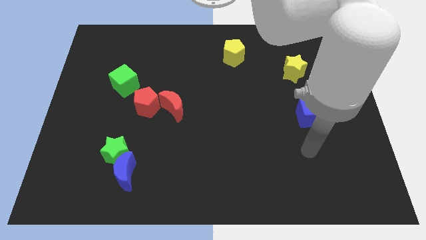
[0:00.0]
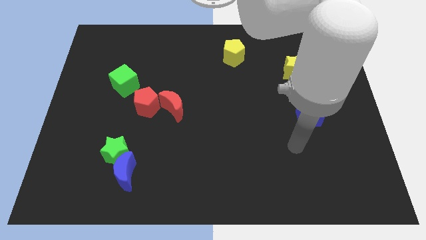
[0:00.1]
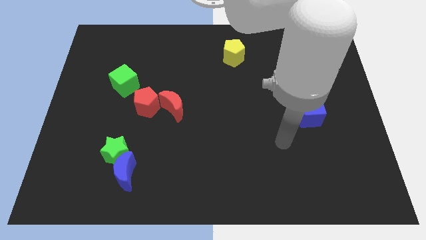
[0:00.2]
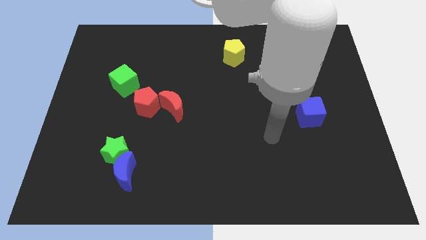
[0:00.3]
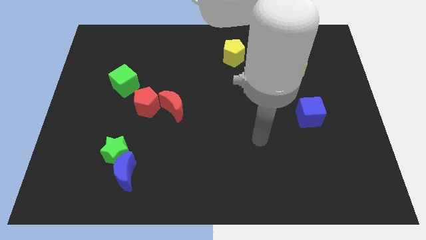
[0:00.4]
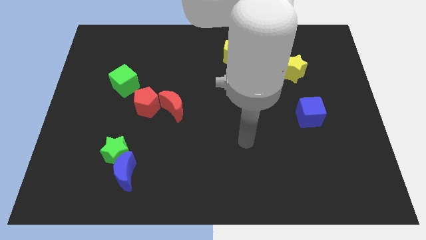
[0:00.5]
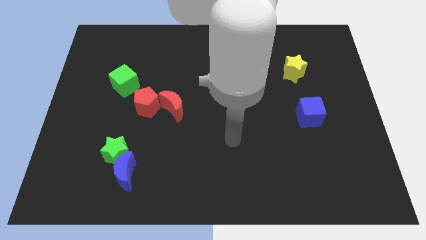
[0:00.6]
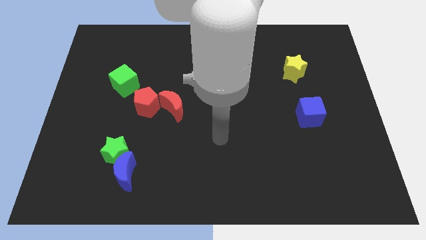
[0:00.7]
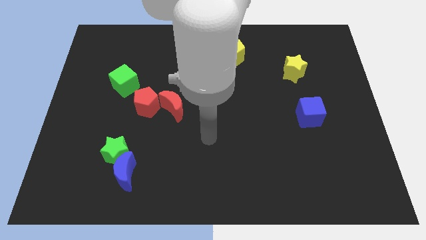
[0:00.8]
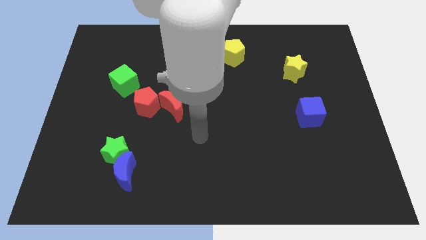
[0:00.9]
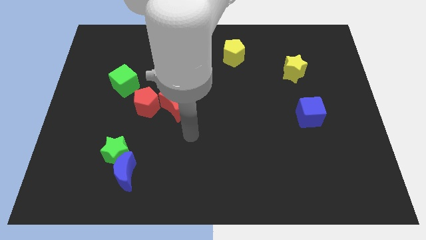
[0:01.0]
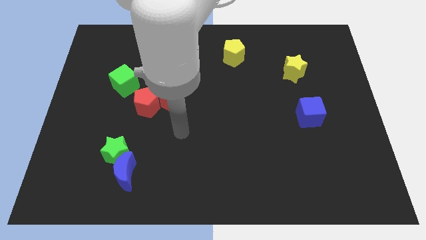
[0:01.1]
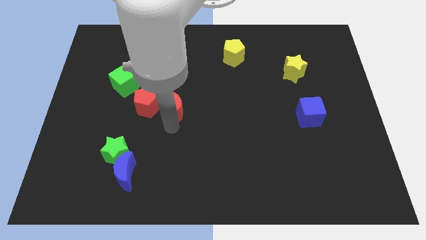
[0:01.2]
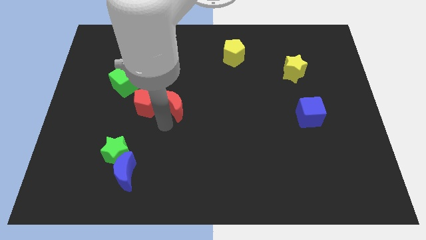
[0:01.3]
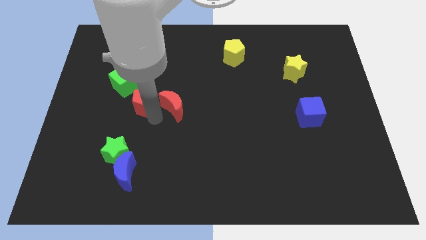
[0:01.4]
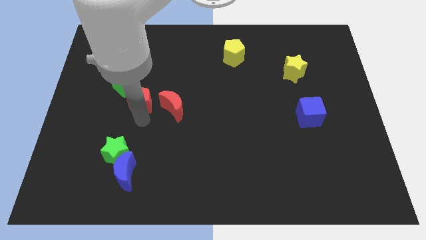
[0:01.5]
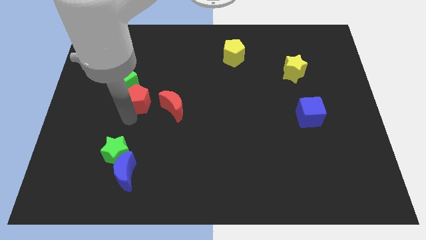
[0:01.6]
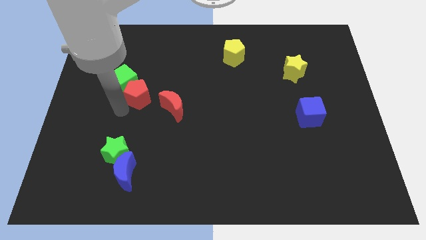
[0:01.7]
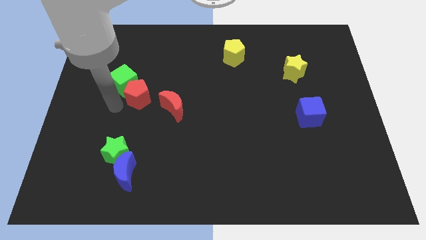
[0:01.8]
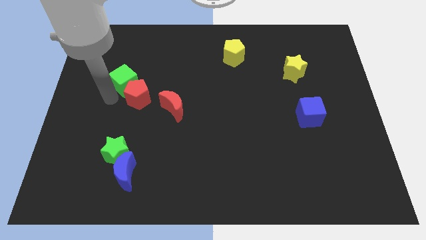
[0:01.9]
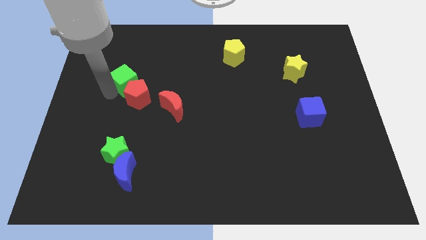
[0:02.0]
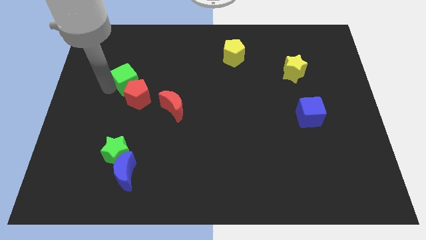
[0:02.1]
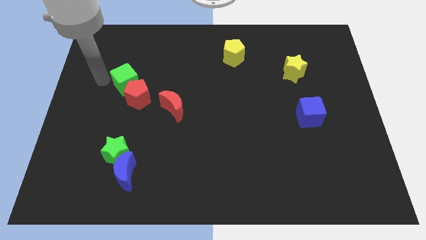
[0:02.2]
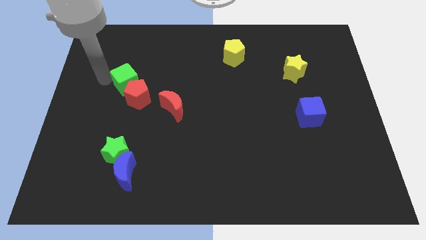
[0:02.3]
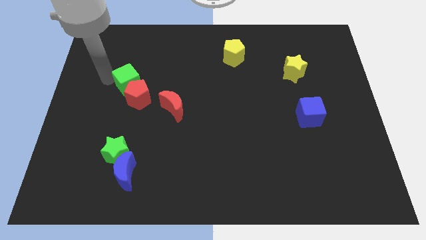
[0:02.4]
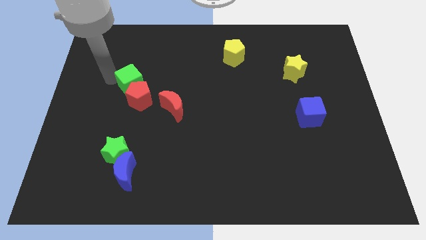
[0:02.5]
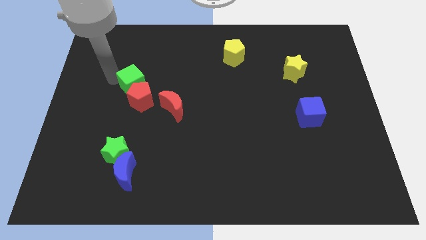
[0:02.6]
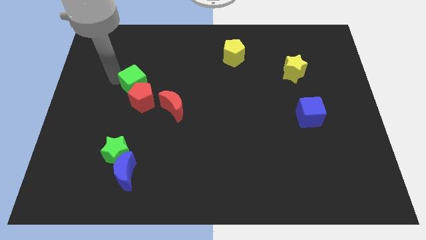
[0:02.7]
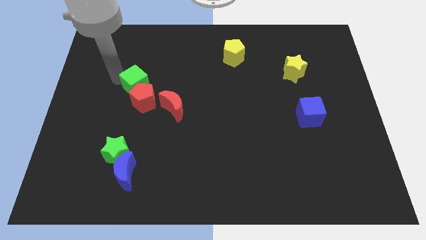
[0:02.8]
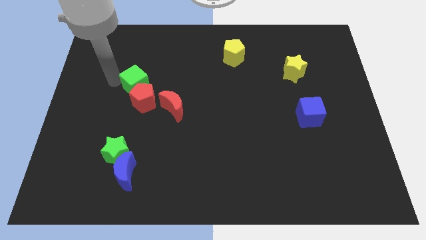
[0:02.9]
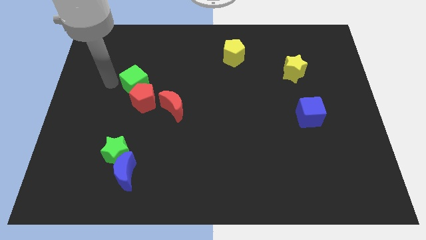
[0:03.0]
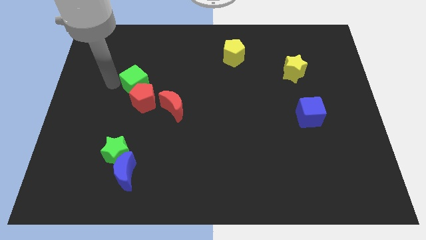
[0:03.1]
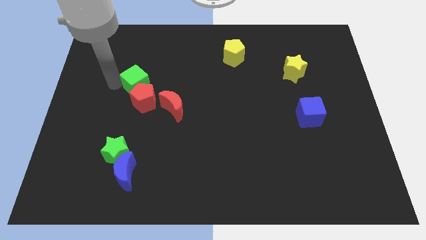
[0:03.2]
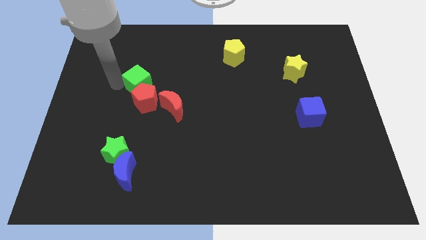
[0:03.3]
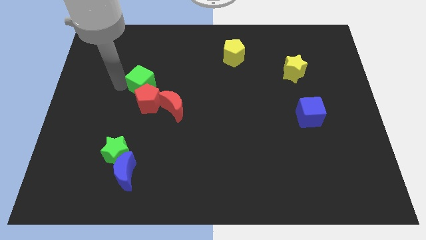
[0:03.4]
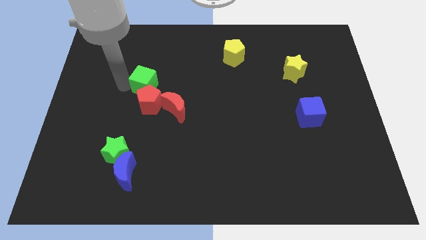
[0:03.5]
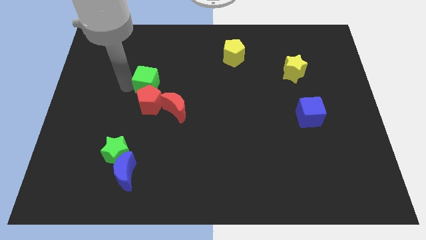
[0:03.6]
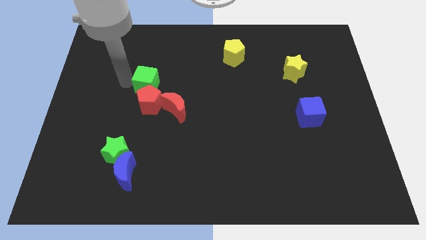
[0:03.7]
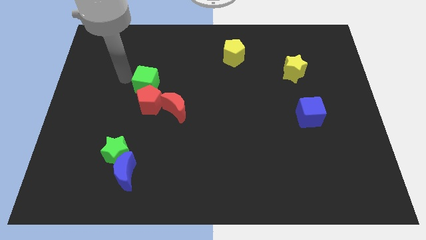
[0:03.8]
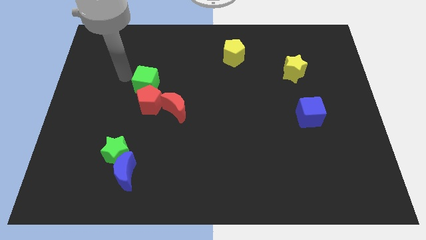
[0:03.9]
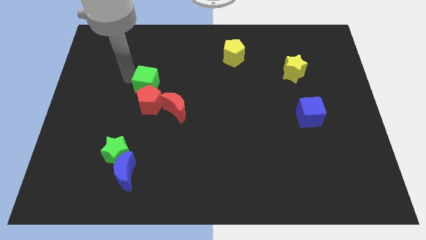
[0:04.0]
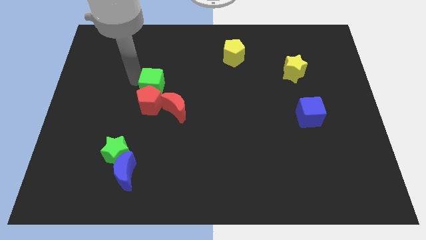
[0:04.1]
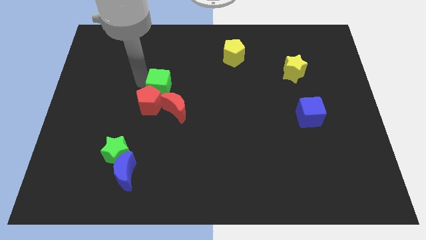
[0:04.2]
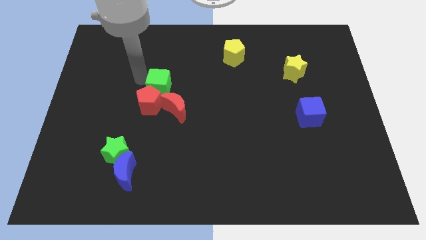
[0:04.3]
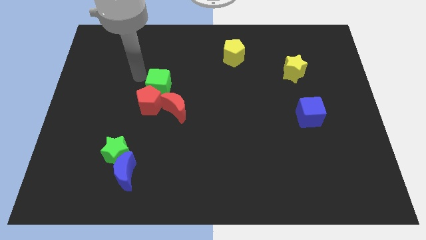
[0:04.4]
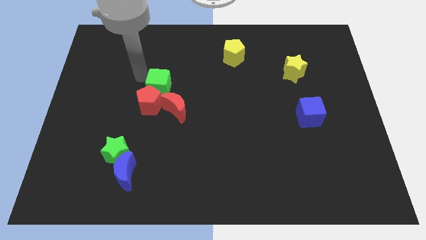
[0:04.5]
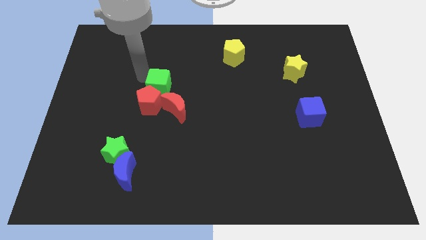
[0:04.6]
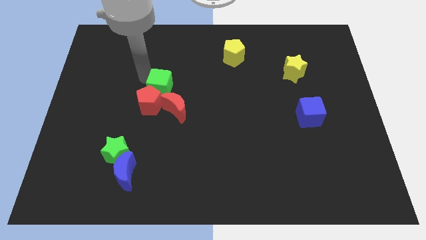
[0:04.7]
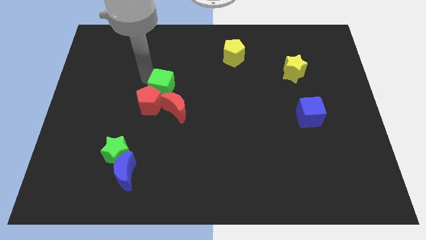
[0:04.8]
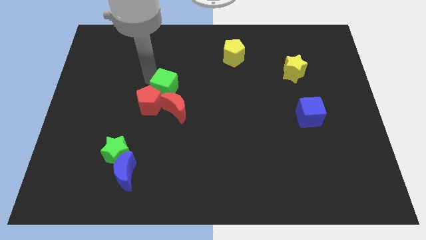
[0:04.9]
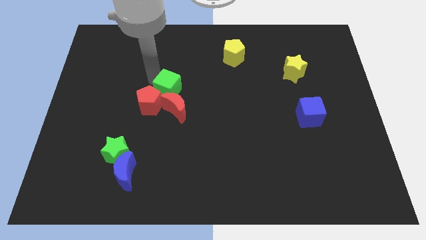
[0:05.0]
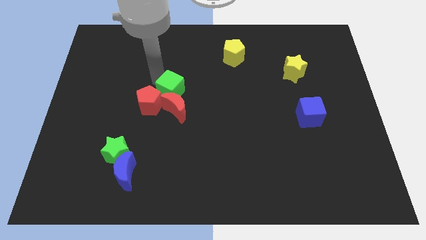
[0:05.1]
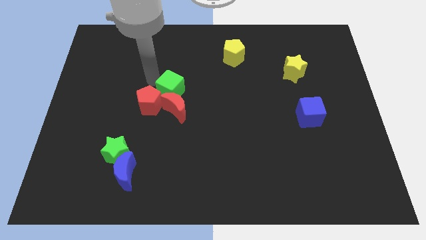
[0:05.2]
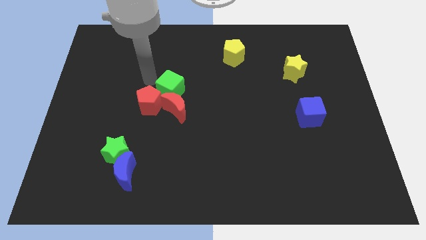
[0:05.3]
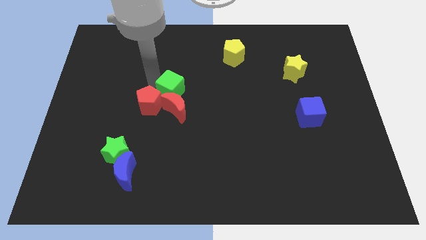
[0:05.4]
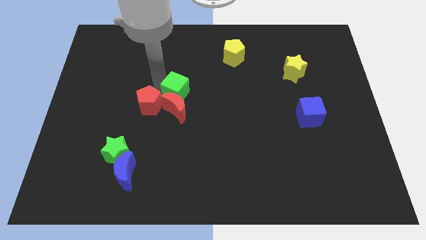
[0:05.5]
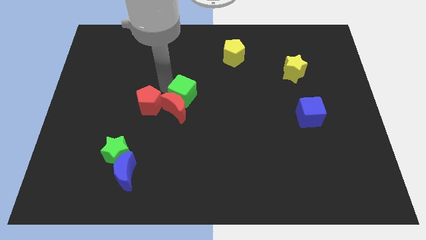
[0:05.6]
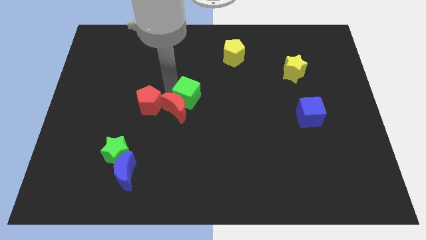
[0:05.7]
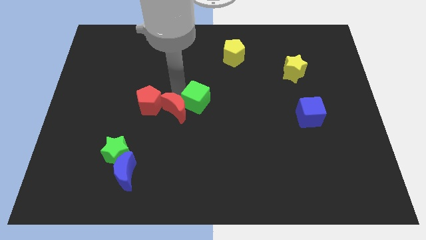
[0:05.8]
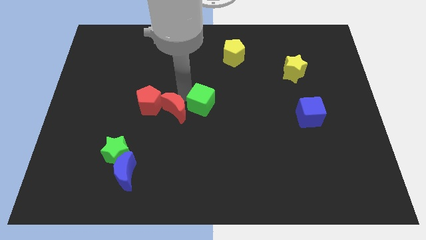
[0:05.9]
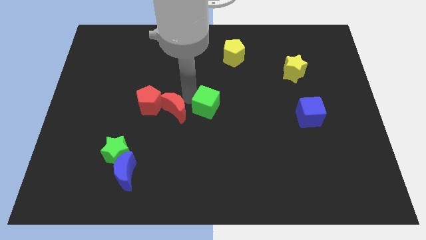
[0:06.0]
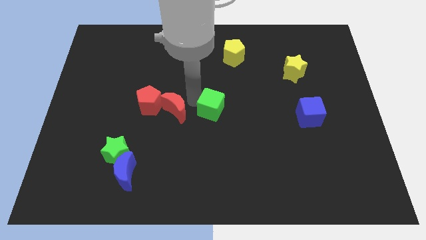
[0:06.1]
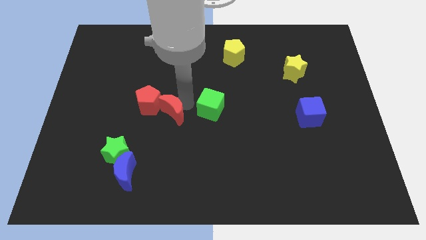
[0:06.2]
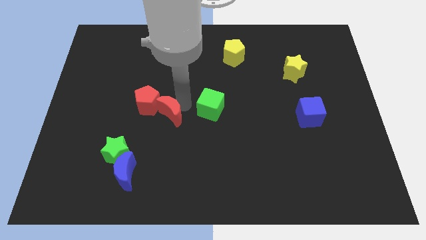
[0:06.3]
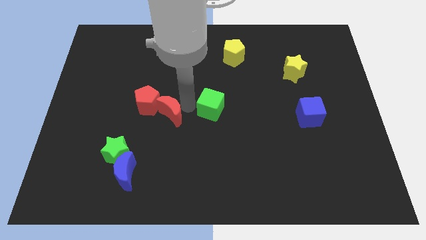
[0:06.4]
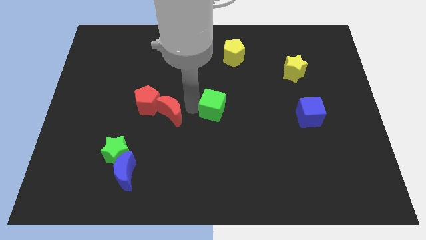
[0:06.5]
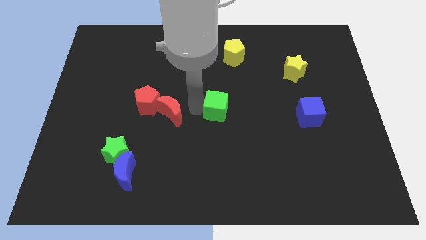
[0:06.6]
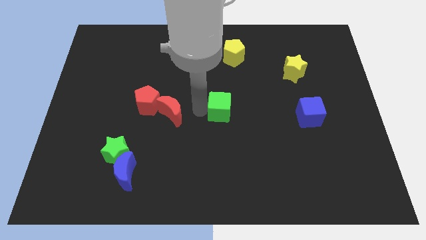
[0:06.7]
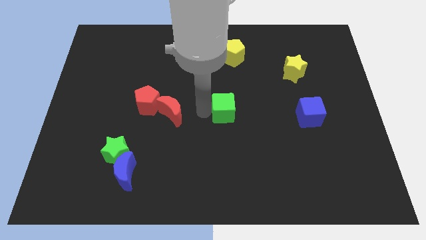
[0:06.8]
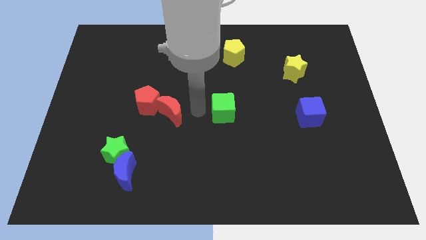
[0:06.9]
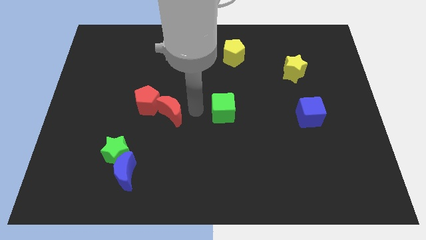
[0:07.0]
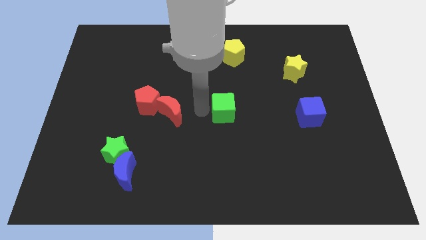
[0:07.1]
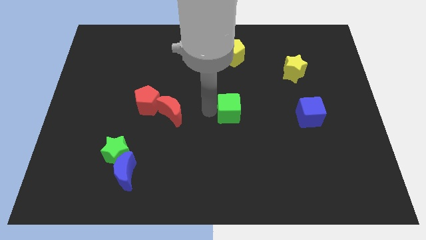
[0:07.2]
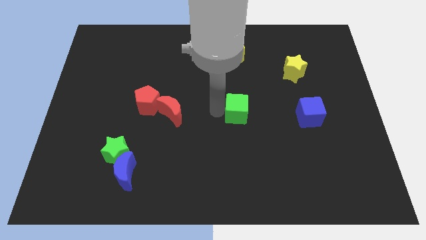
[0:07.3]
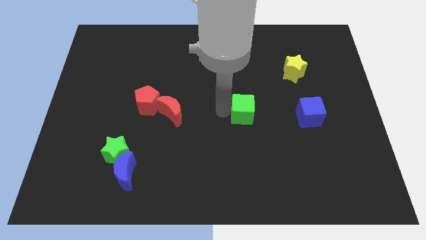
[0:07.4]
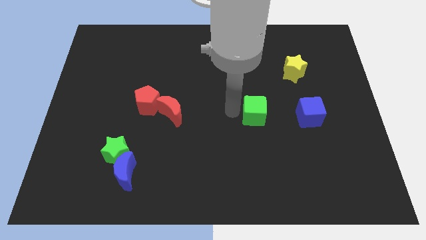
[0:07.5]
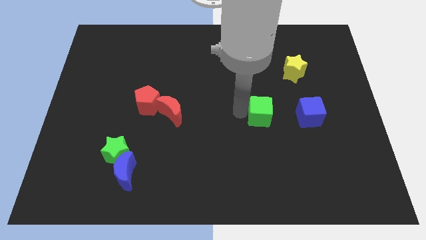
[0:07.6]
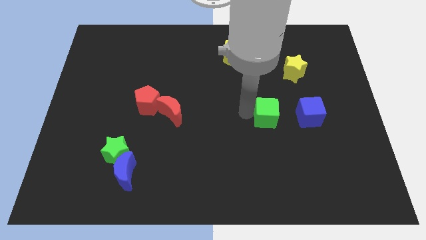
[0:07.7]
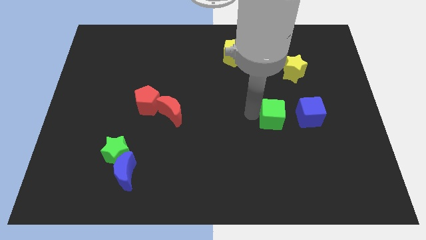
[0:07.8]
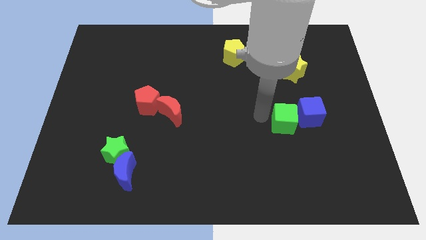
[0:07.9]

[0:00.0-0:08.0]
move the green cube towards the blue cube
